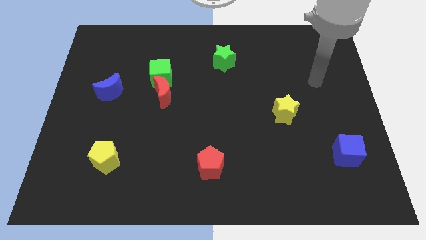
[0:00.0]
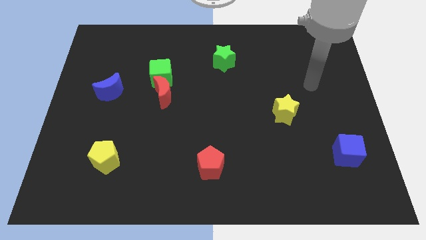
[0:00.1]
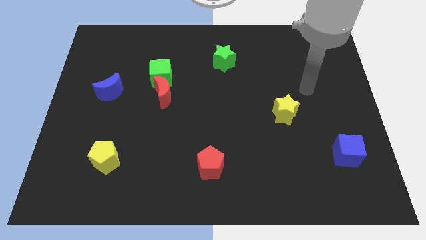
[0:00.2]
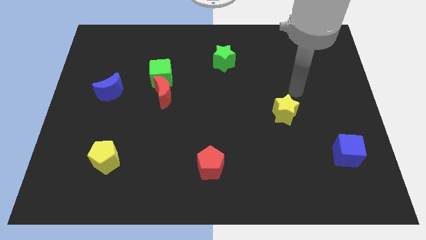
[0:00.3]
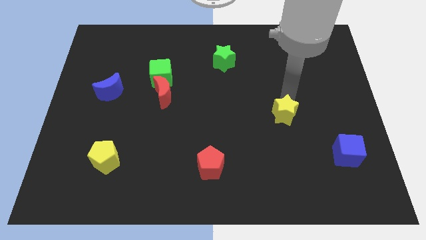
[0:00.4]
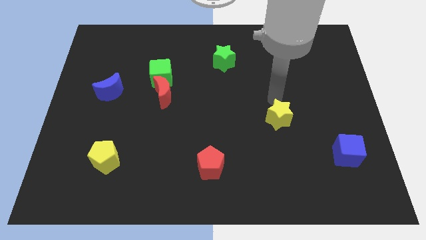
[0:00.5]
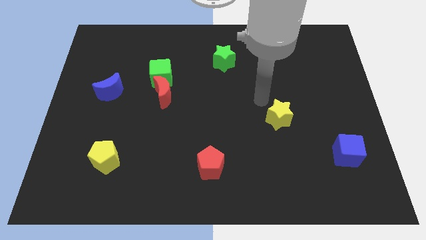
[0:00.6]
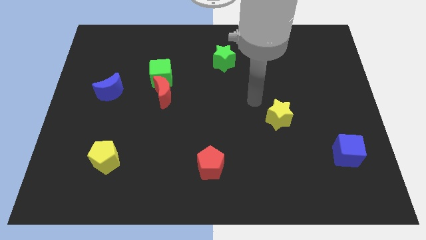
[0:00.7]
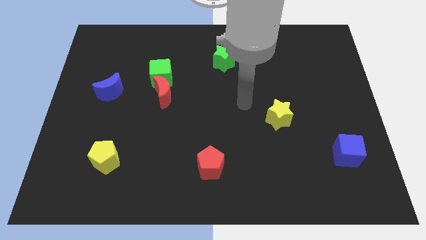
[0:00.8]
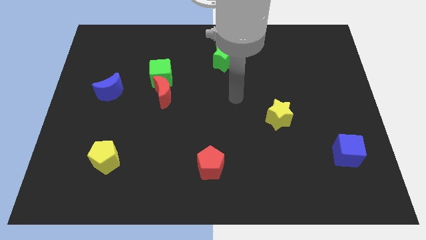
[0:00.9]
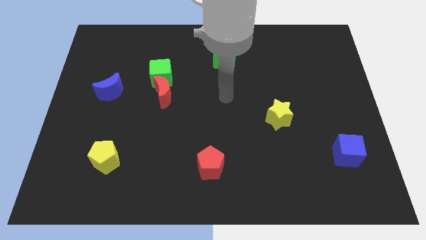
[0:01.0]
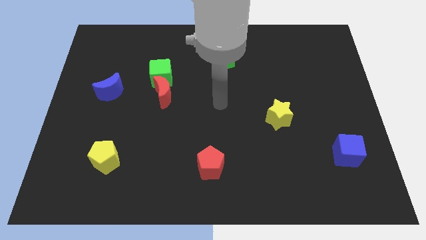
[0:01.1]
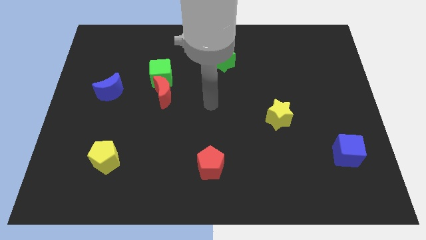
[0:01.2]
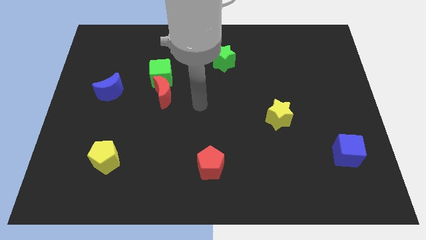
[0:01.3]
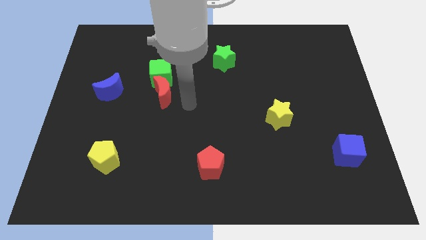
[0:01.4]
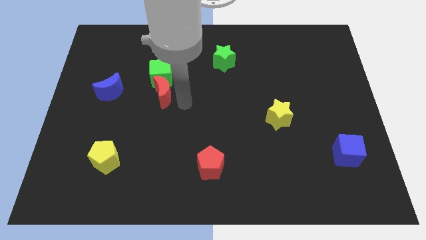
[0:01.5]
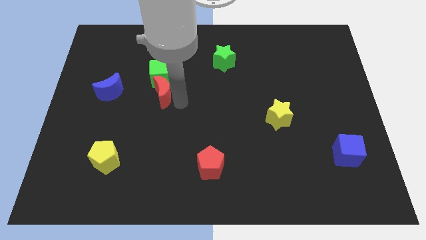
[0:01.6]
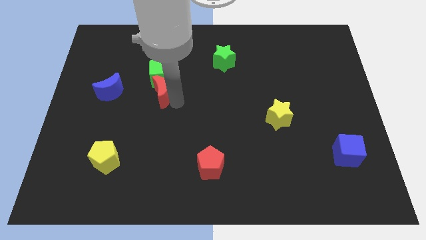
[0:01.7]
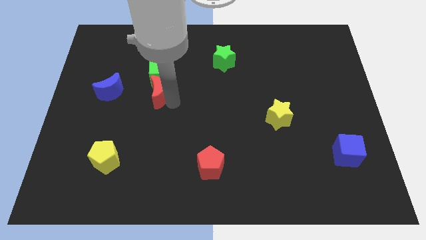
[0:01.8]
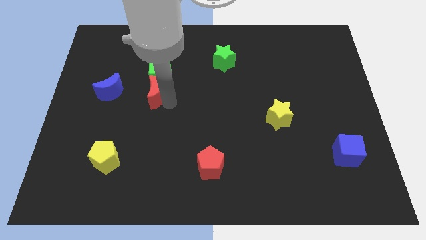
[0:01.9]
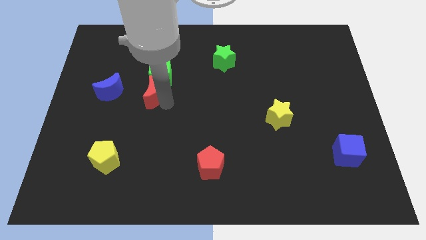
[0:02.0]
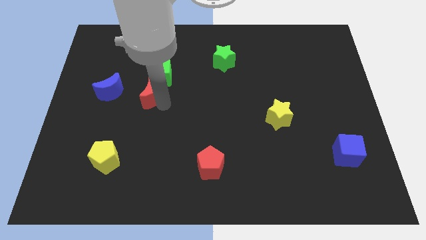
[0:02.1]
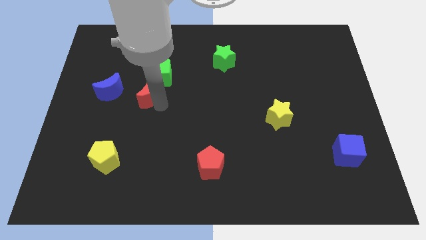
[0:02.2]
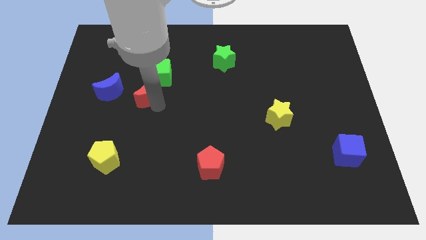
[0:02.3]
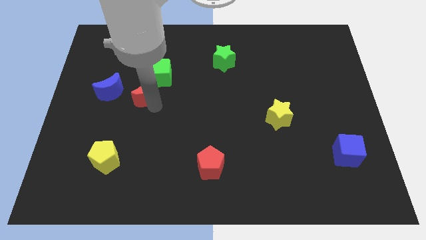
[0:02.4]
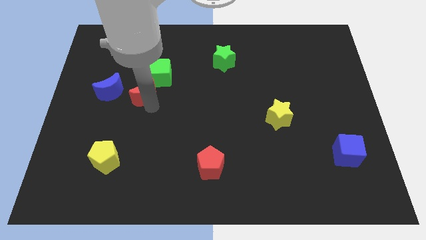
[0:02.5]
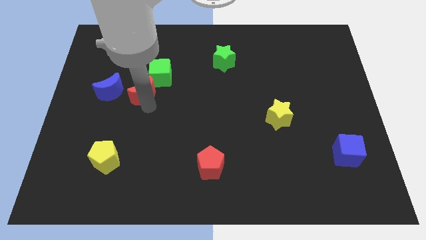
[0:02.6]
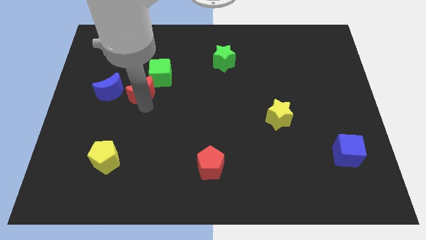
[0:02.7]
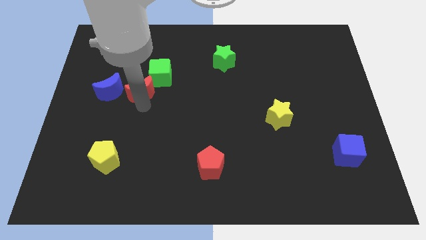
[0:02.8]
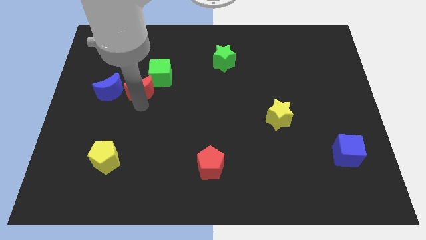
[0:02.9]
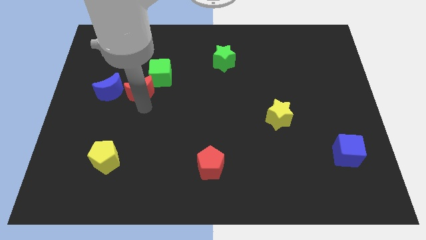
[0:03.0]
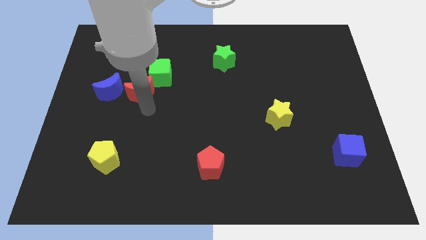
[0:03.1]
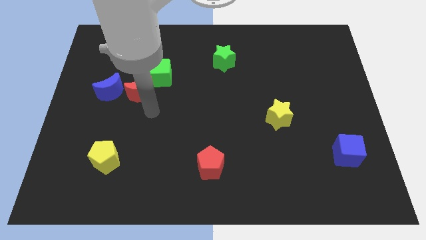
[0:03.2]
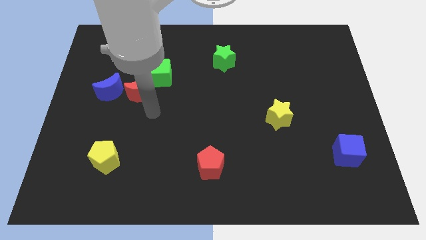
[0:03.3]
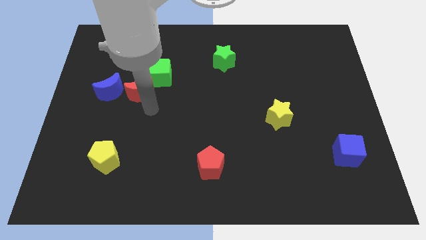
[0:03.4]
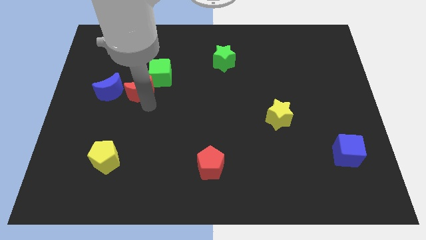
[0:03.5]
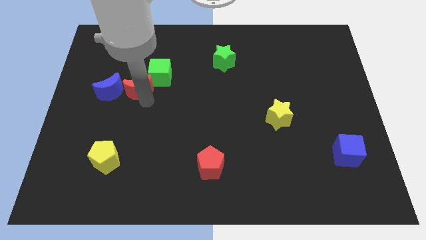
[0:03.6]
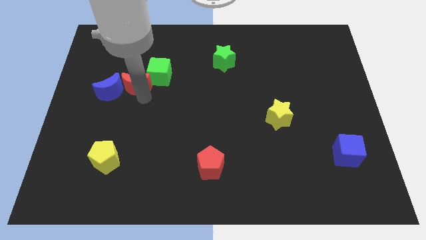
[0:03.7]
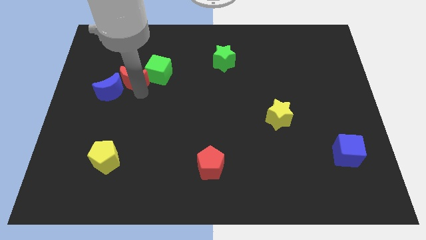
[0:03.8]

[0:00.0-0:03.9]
push the red moon diagonally upwards and left a bit

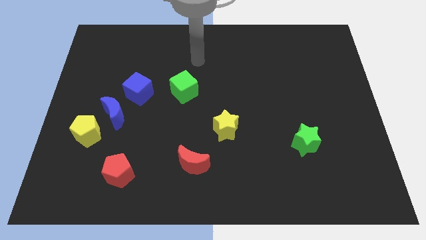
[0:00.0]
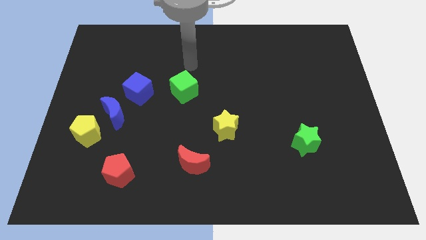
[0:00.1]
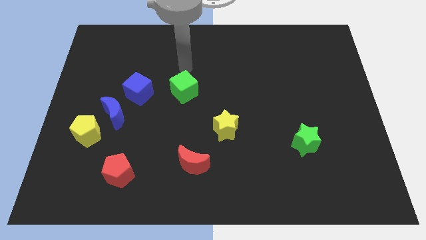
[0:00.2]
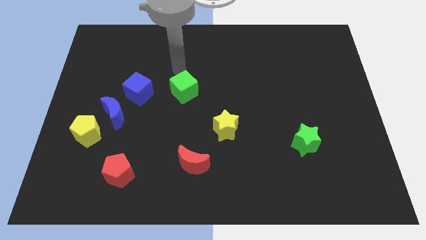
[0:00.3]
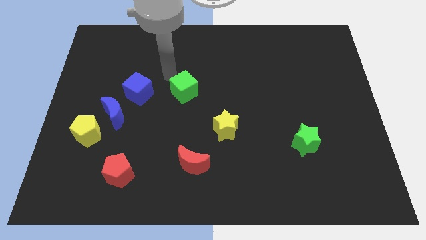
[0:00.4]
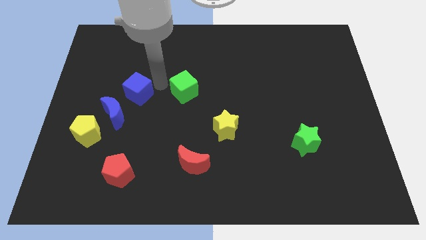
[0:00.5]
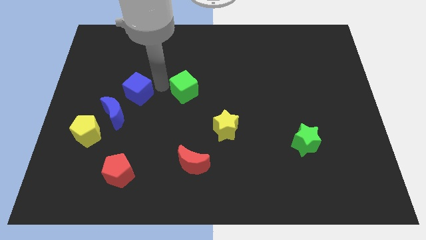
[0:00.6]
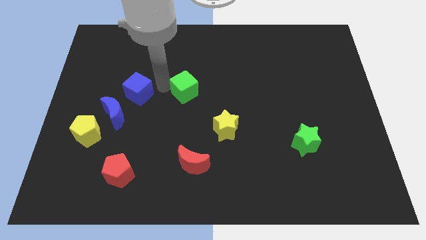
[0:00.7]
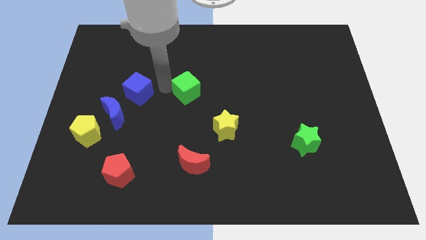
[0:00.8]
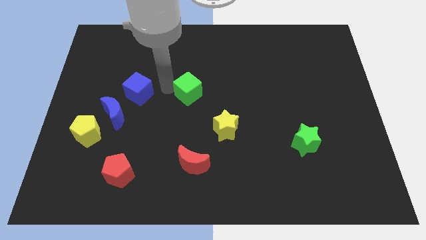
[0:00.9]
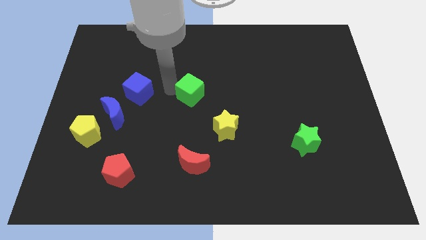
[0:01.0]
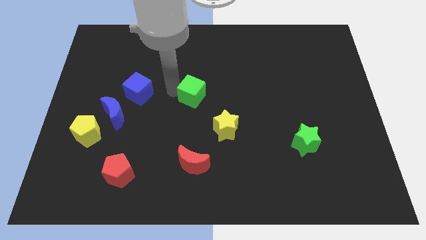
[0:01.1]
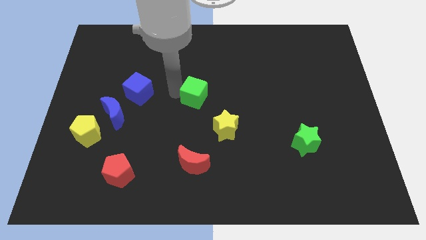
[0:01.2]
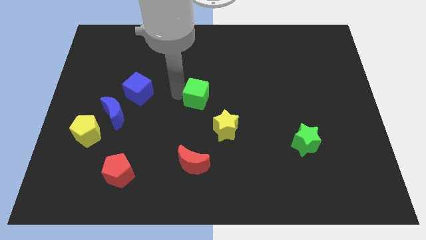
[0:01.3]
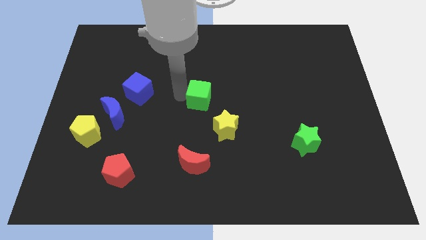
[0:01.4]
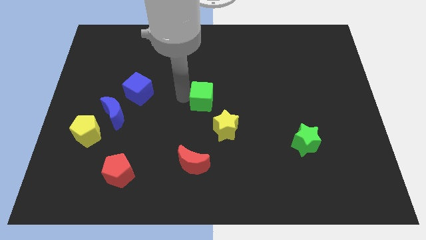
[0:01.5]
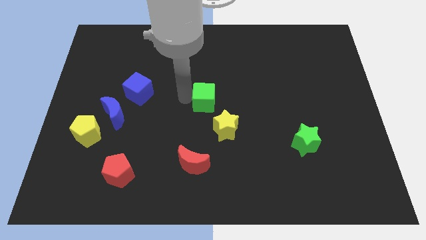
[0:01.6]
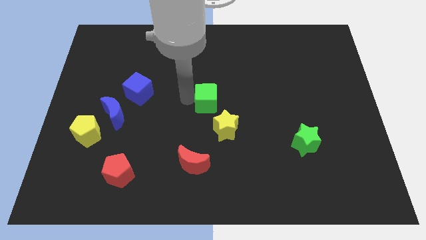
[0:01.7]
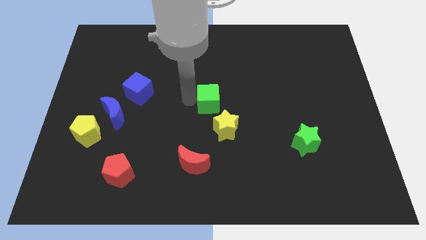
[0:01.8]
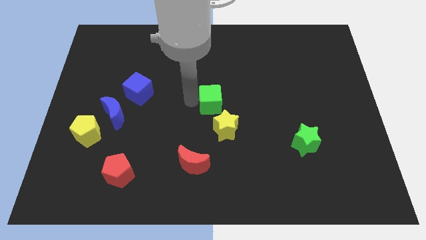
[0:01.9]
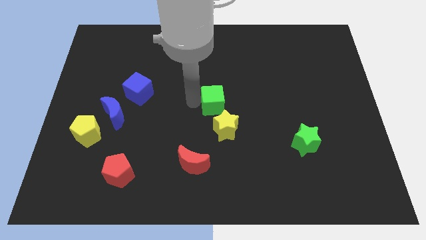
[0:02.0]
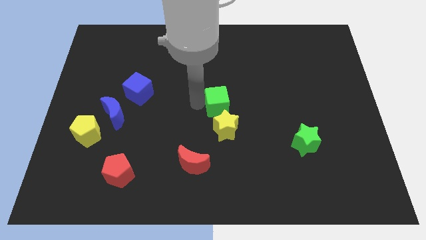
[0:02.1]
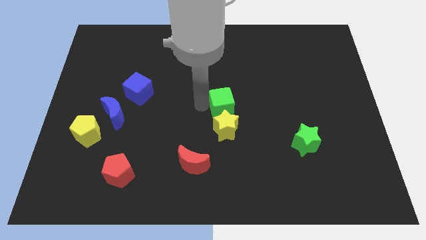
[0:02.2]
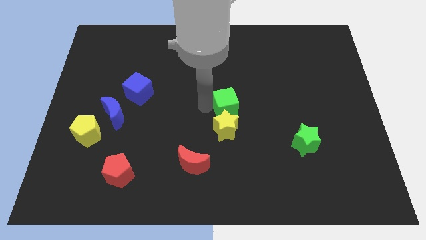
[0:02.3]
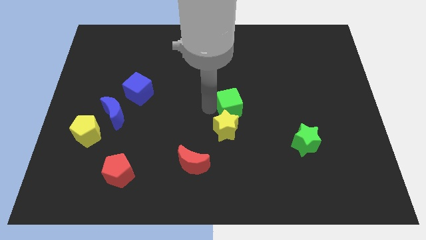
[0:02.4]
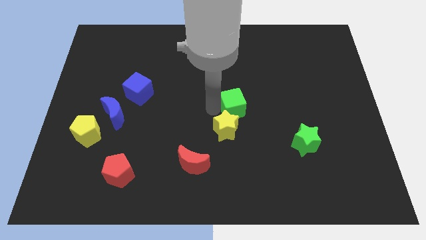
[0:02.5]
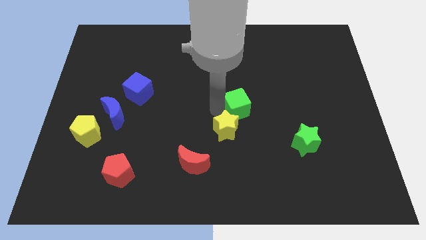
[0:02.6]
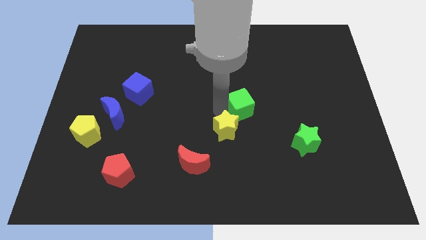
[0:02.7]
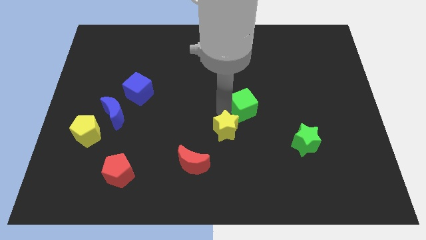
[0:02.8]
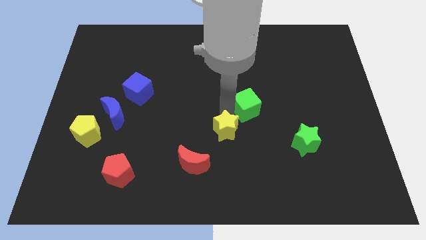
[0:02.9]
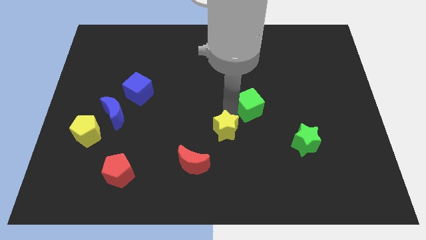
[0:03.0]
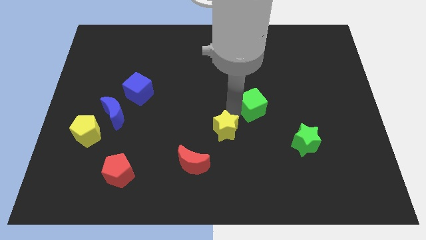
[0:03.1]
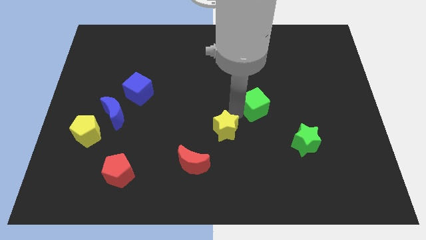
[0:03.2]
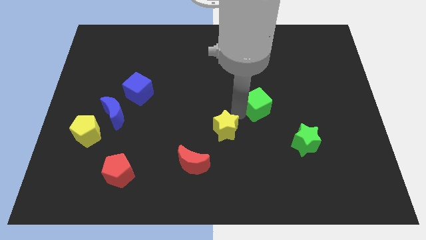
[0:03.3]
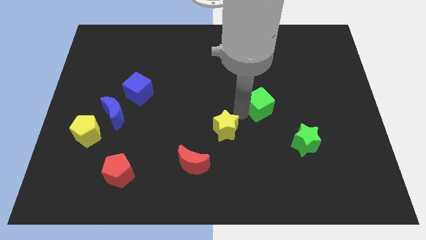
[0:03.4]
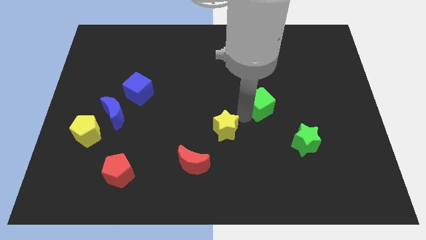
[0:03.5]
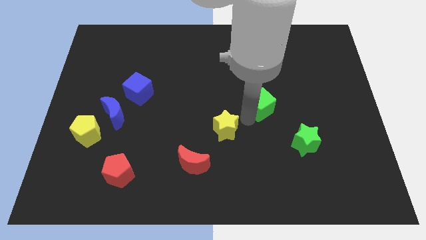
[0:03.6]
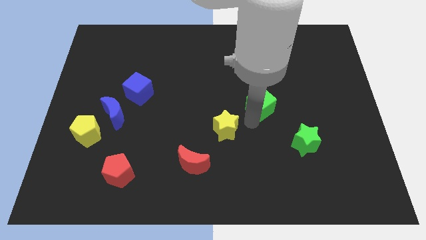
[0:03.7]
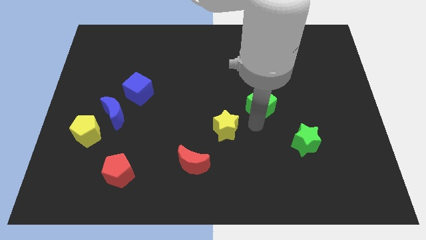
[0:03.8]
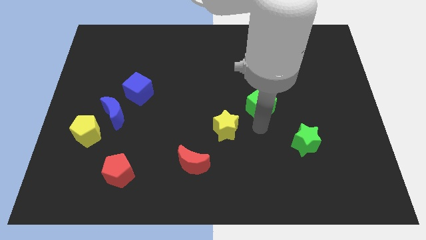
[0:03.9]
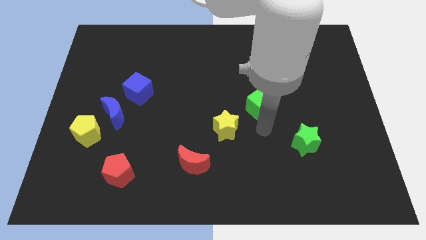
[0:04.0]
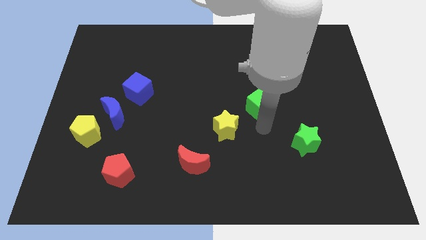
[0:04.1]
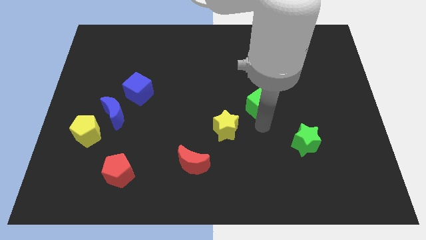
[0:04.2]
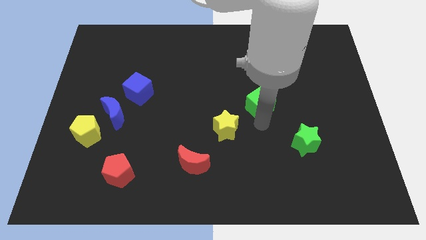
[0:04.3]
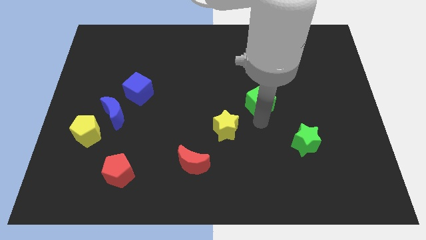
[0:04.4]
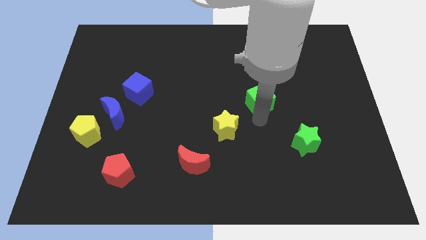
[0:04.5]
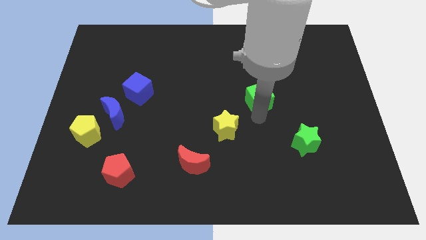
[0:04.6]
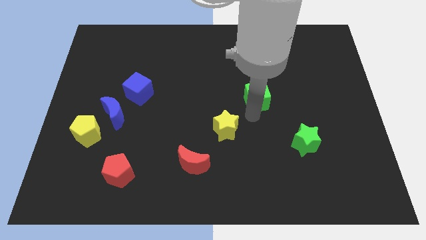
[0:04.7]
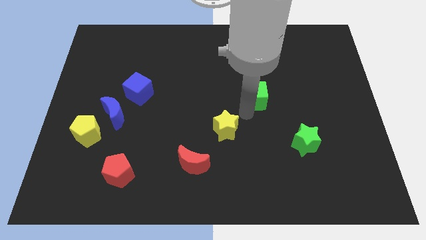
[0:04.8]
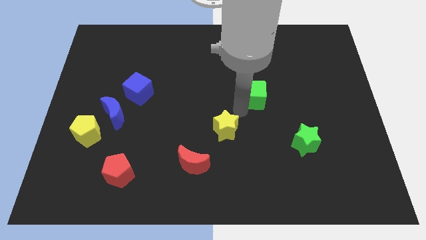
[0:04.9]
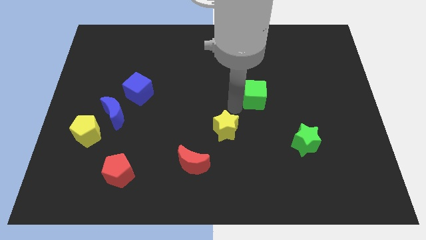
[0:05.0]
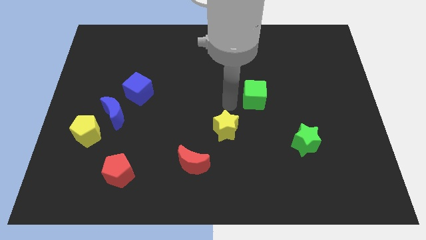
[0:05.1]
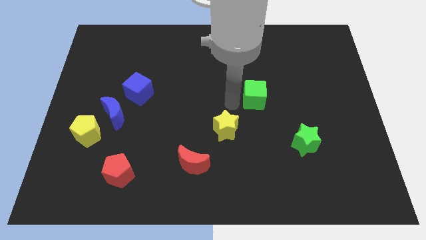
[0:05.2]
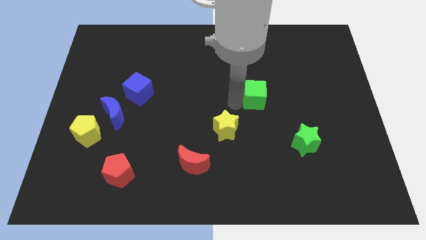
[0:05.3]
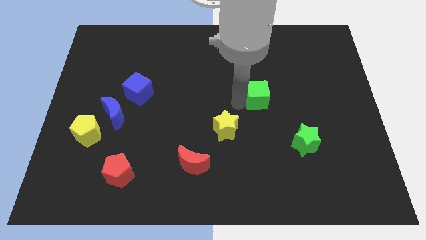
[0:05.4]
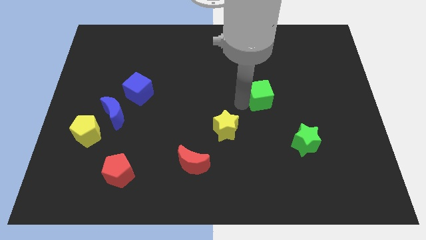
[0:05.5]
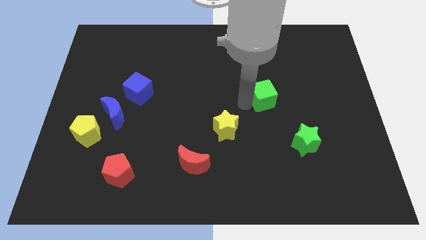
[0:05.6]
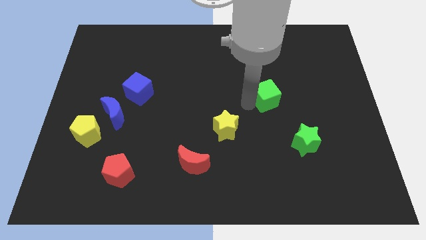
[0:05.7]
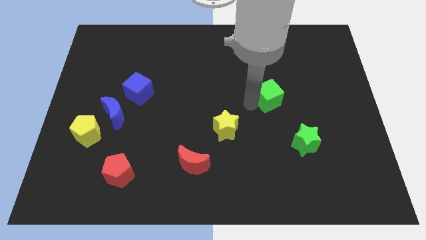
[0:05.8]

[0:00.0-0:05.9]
slide the green cube right
